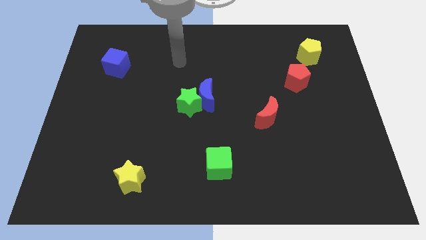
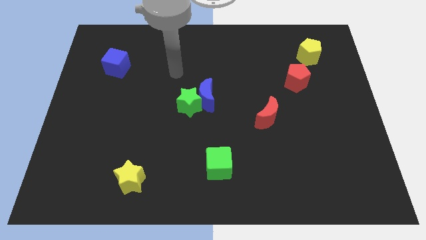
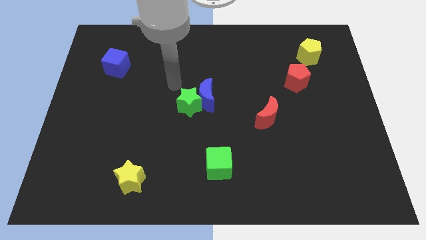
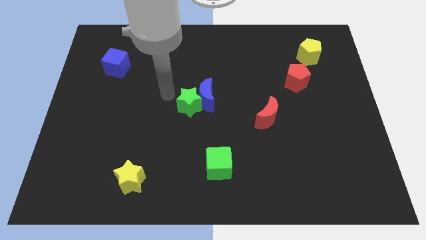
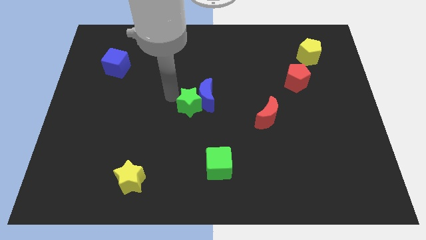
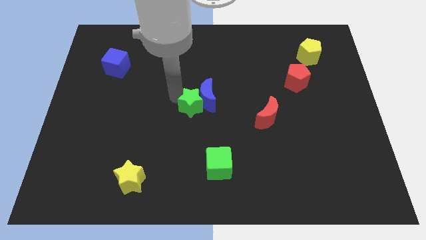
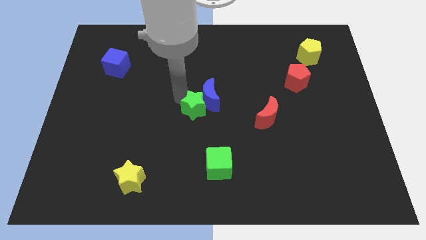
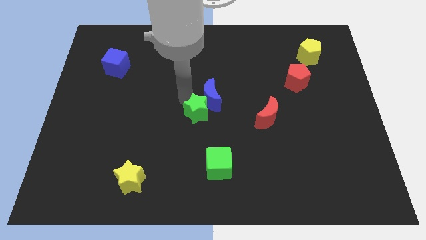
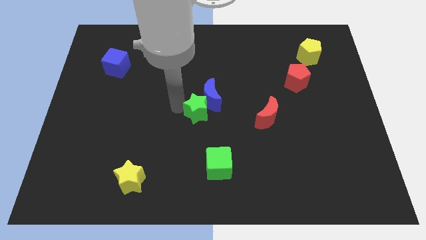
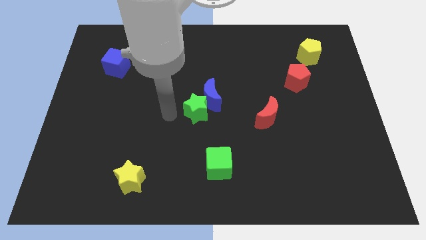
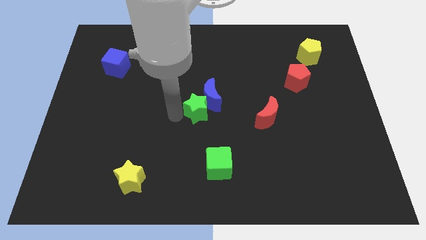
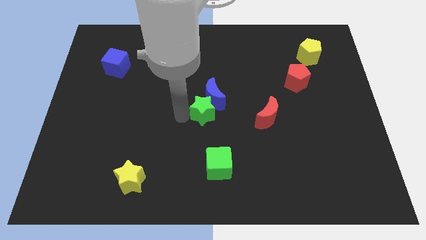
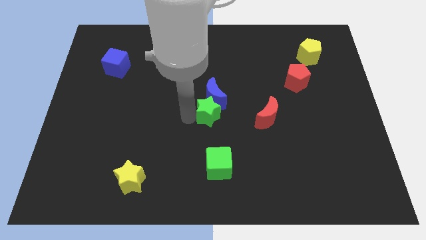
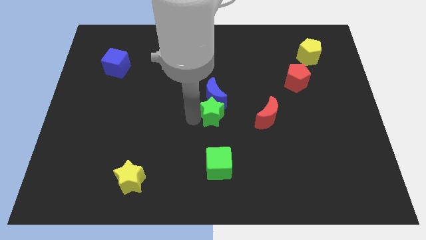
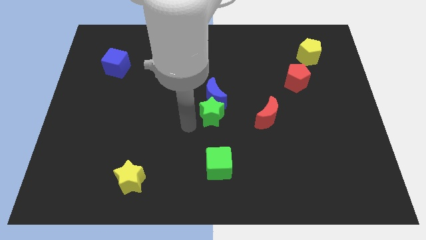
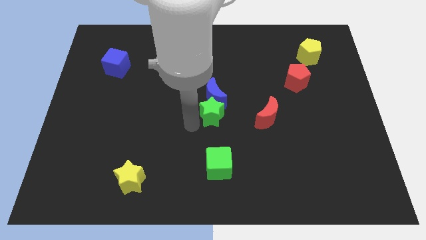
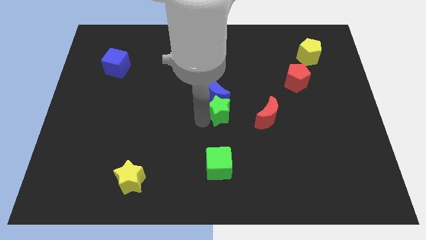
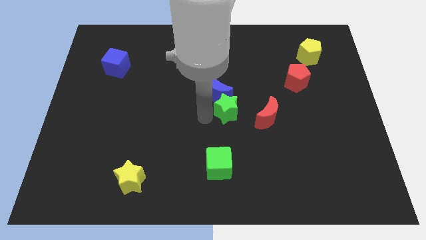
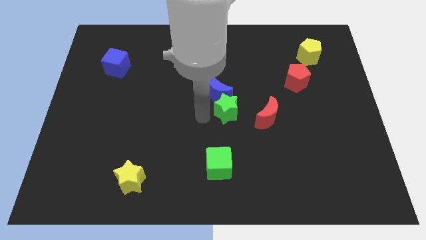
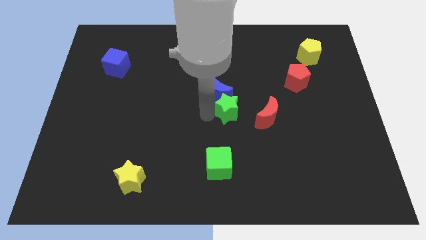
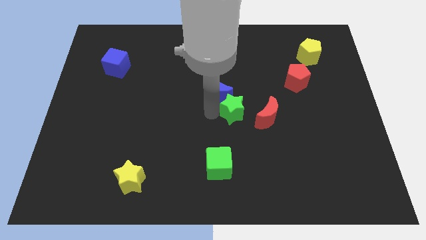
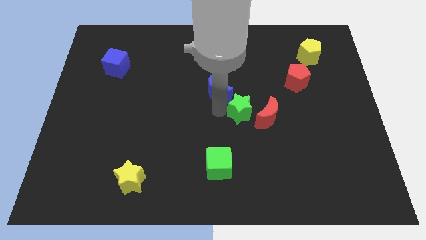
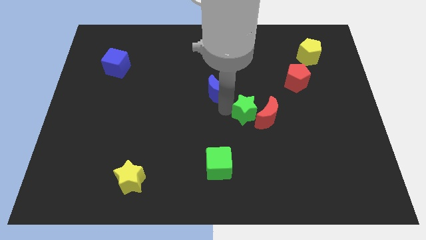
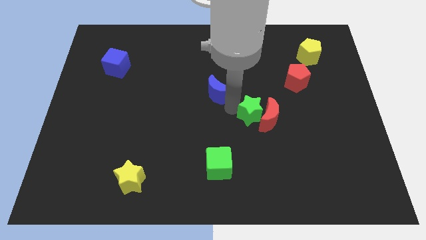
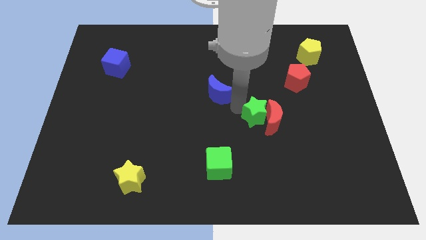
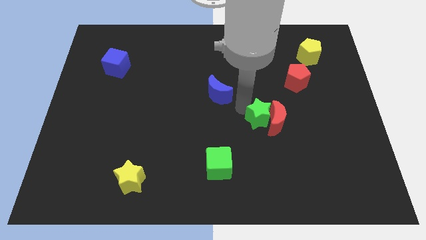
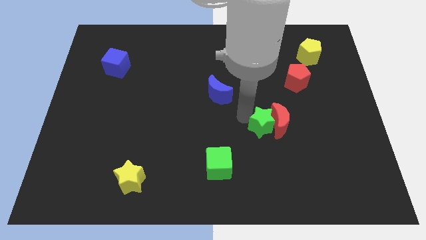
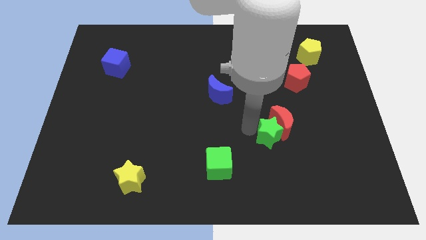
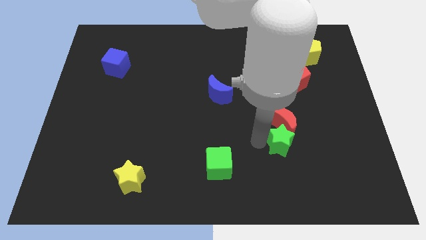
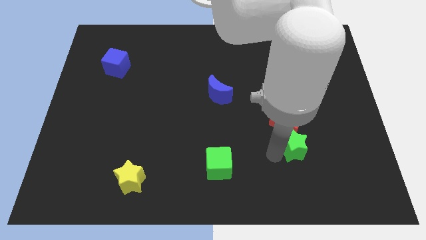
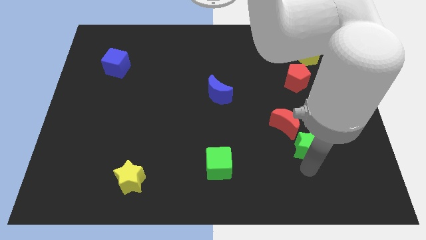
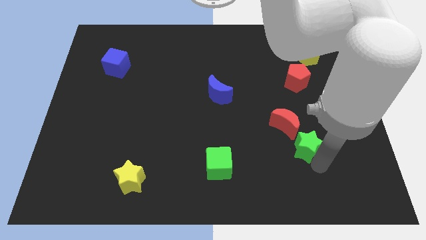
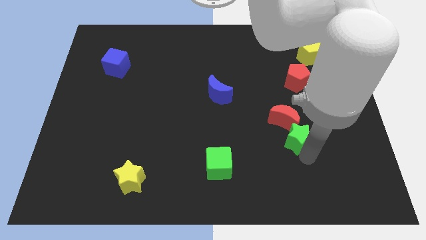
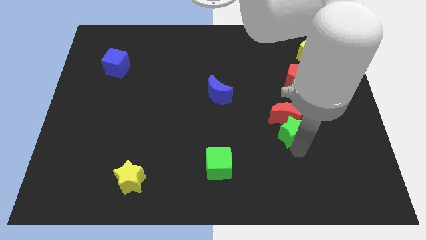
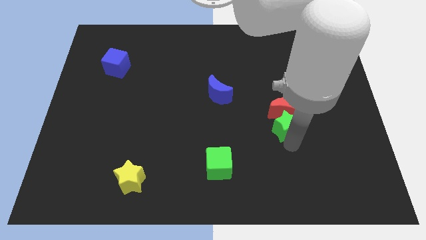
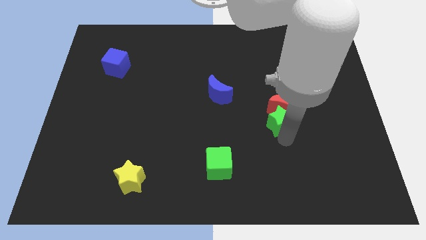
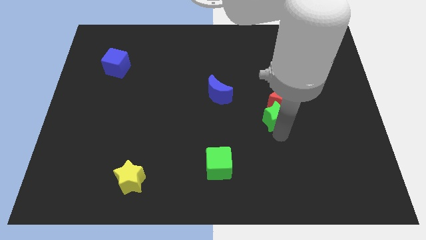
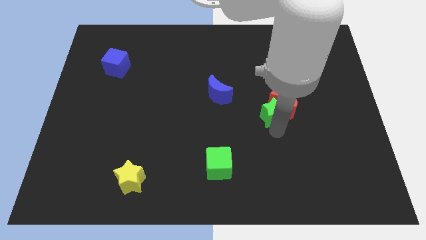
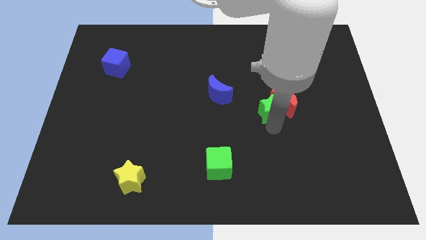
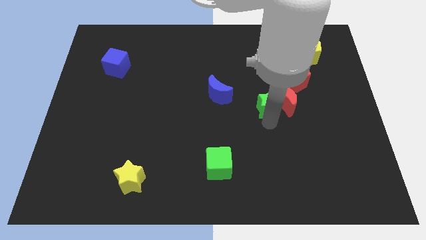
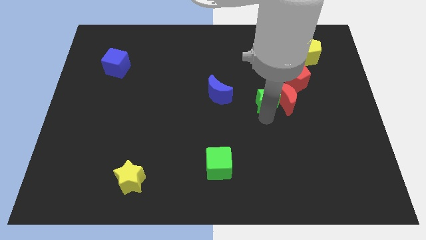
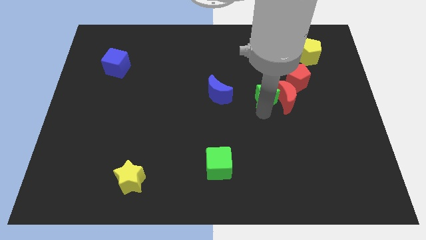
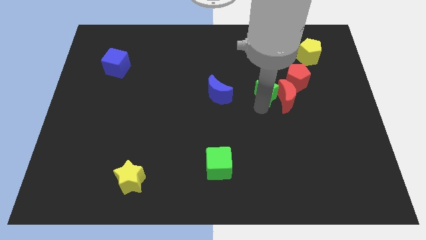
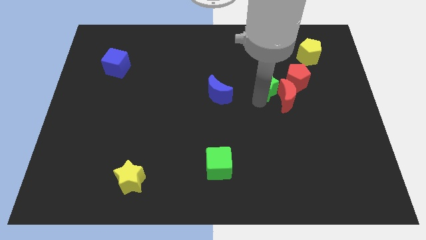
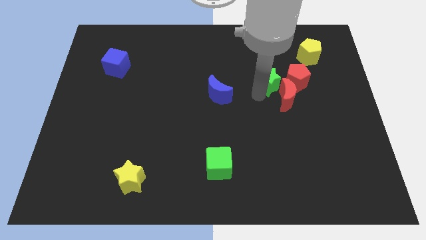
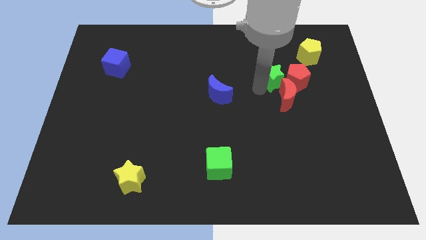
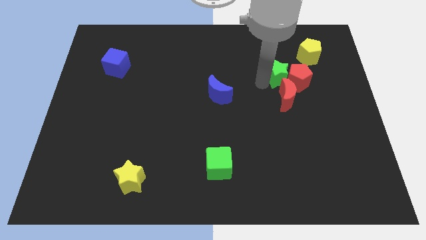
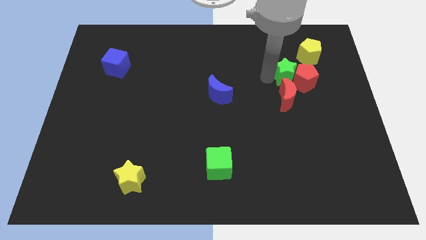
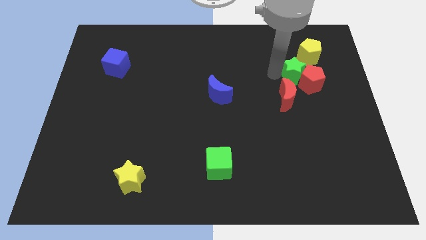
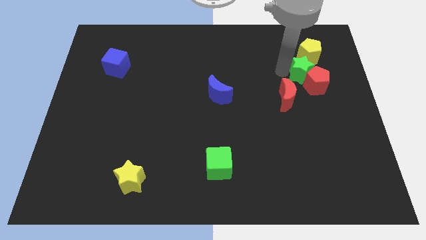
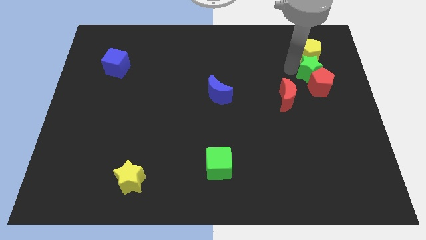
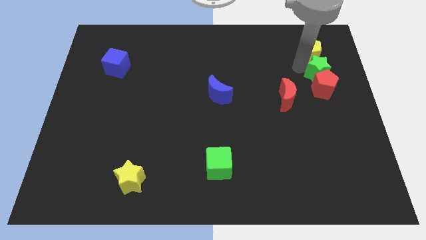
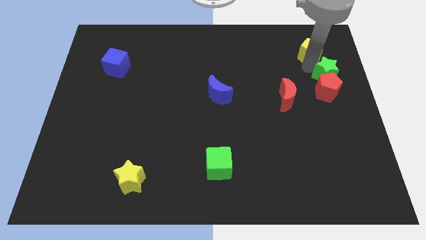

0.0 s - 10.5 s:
push the green star to the center right

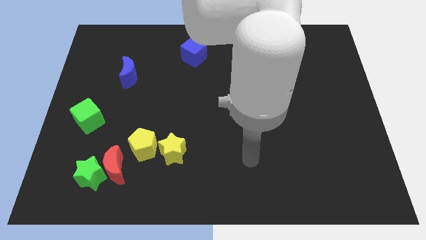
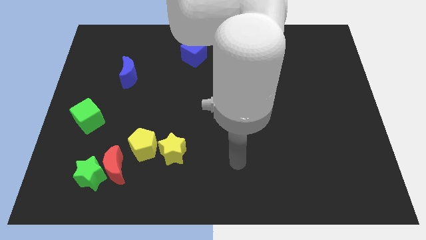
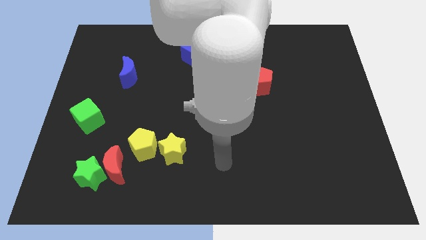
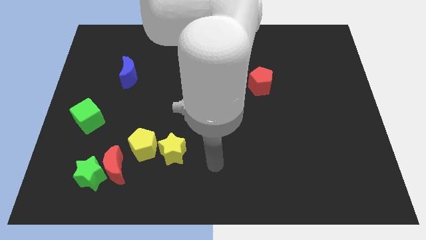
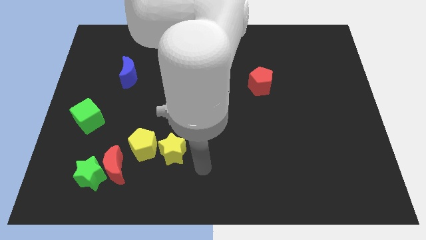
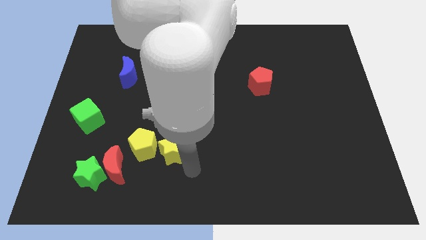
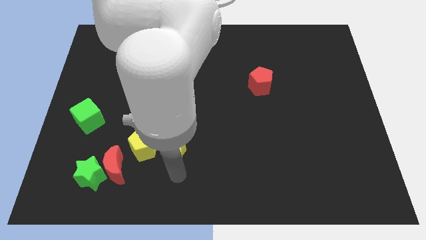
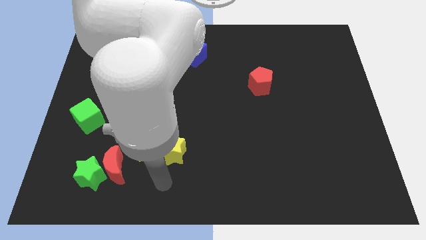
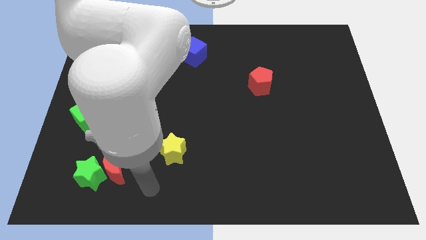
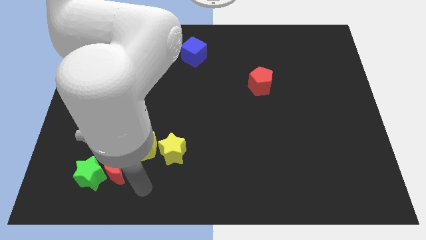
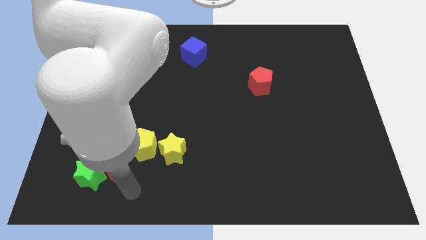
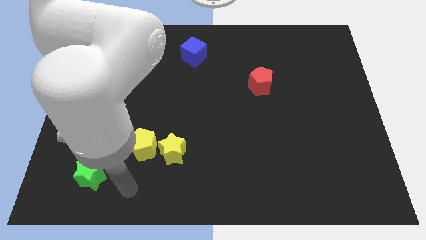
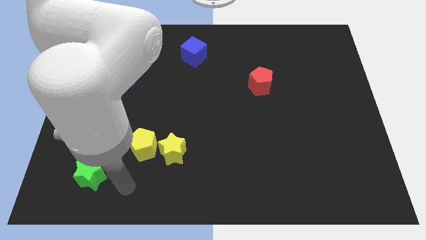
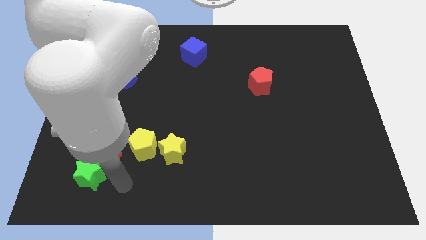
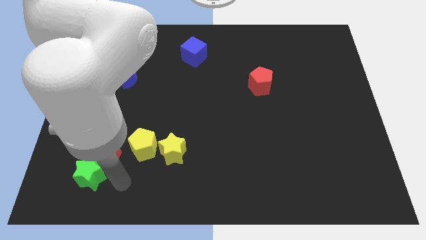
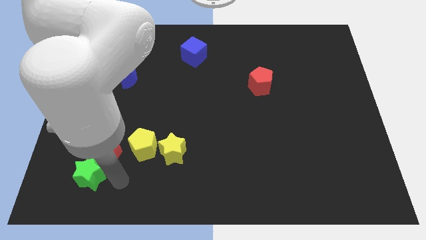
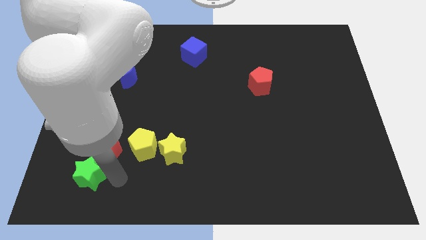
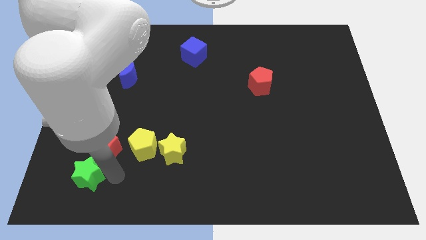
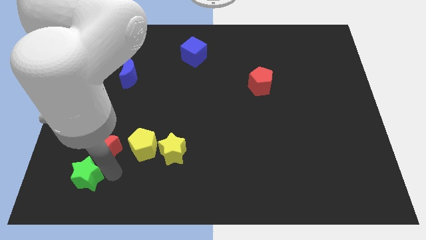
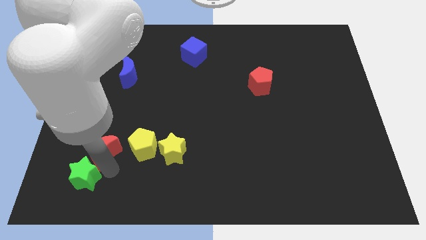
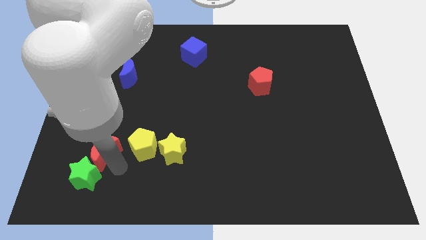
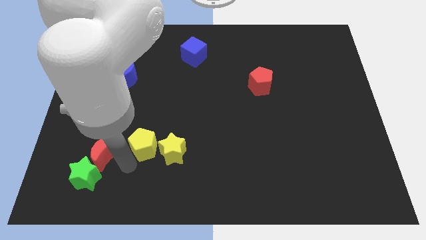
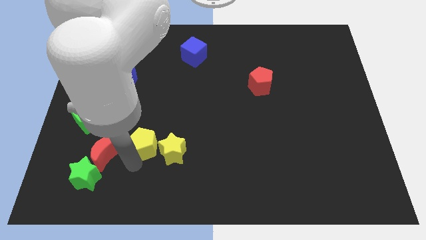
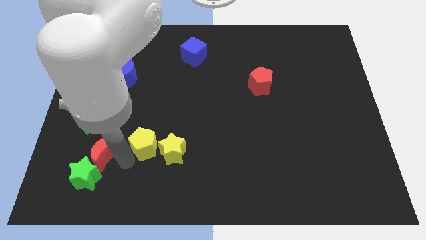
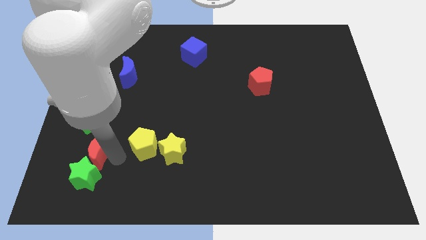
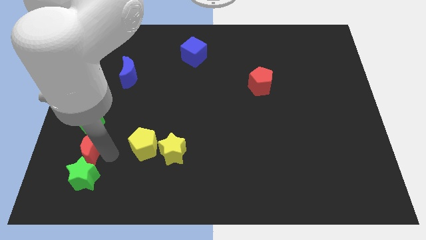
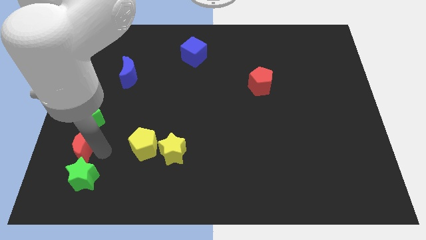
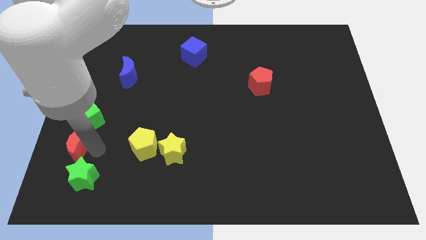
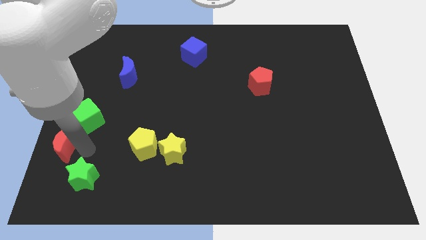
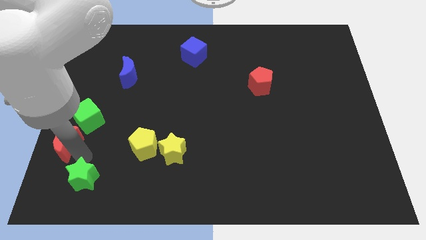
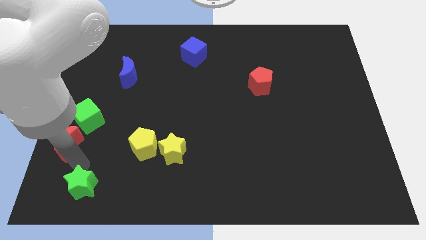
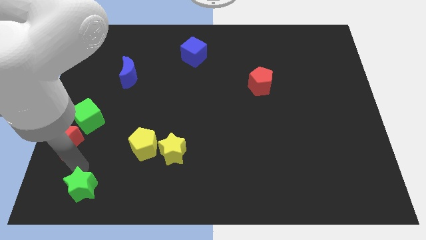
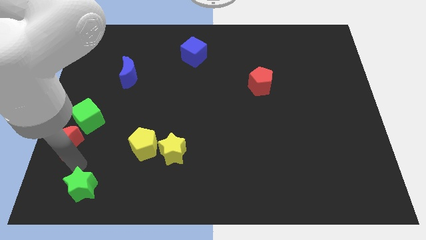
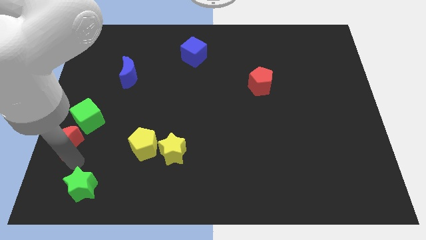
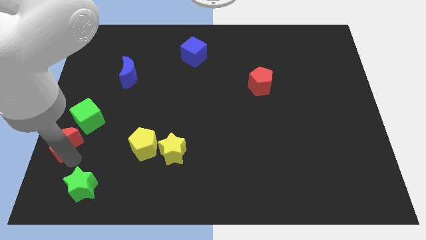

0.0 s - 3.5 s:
push the red moon to the left side
